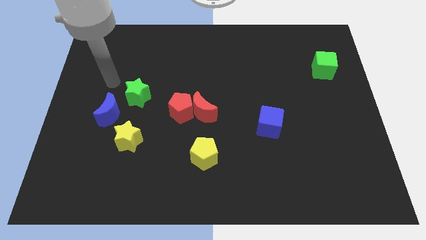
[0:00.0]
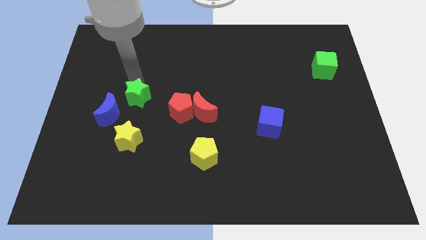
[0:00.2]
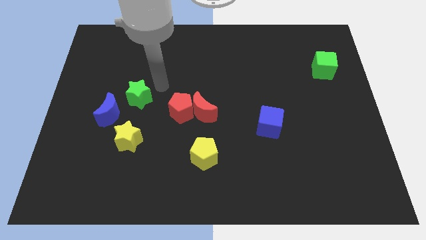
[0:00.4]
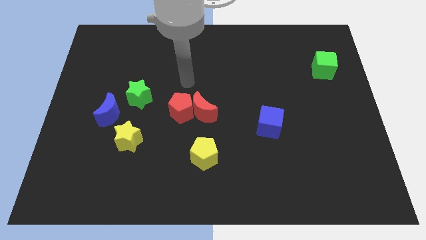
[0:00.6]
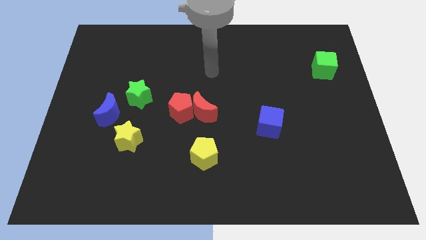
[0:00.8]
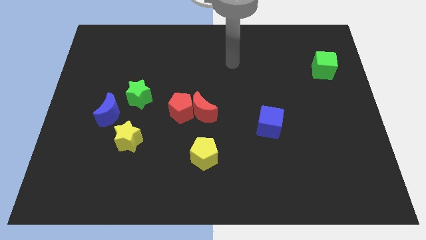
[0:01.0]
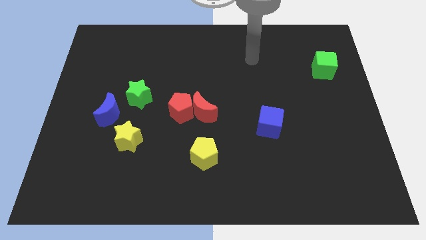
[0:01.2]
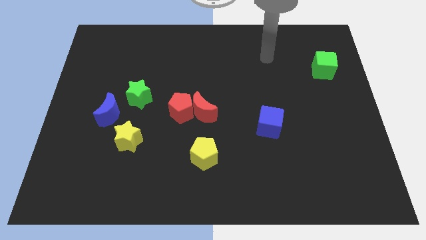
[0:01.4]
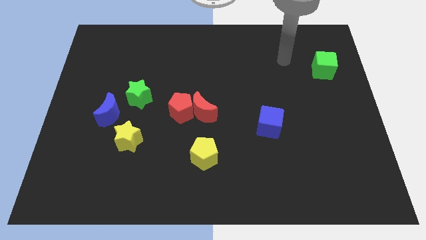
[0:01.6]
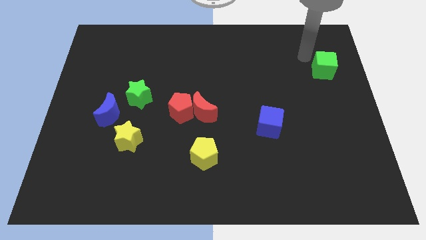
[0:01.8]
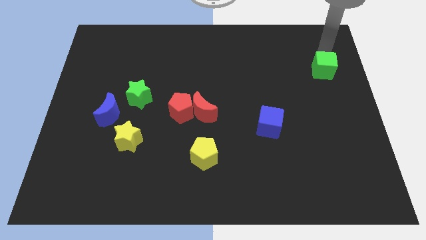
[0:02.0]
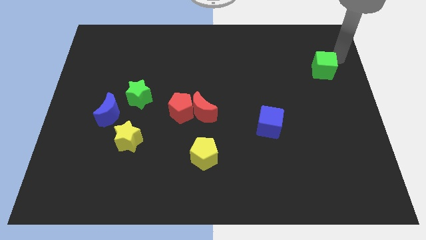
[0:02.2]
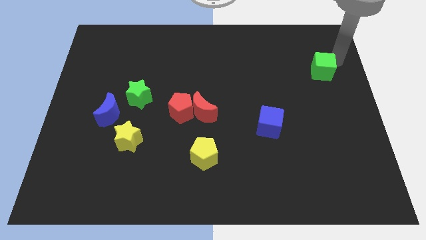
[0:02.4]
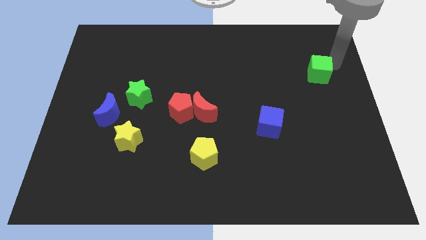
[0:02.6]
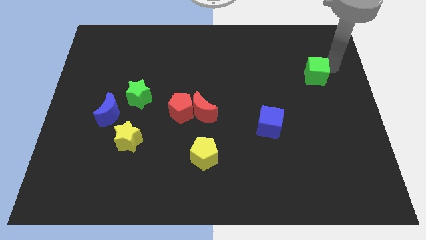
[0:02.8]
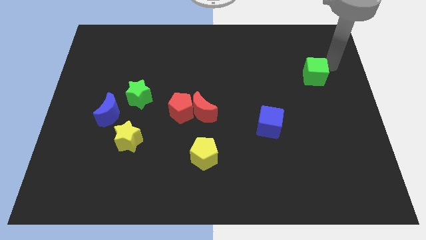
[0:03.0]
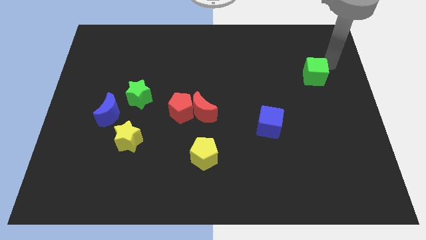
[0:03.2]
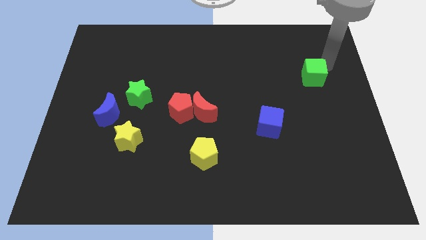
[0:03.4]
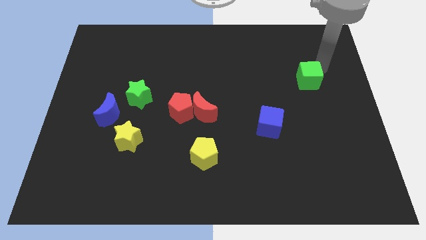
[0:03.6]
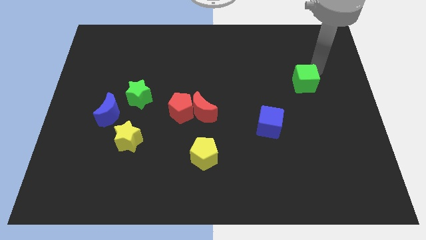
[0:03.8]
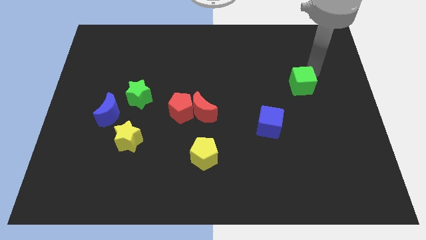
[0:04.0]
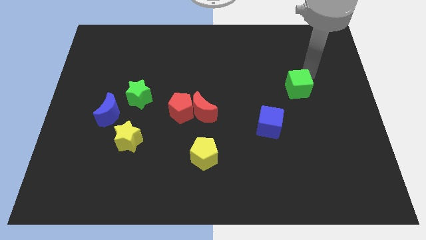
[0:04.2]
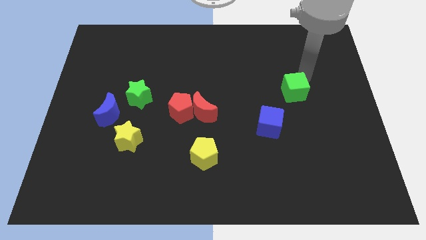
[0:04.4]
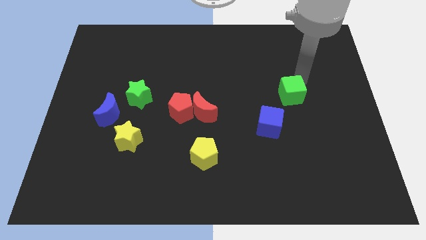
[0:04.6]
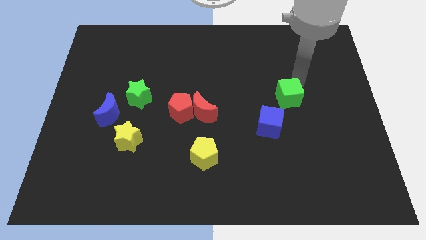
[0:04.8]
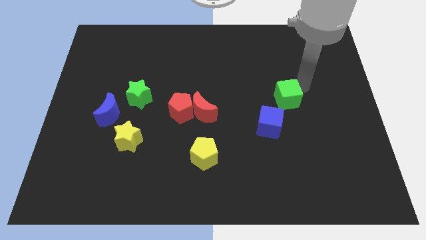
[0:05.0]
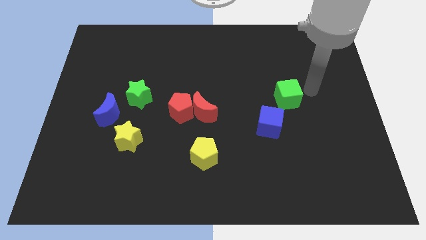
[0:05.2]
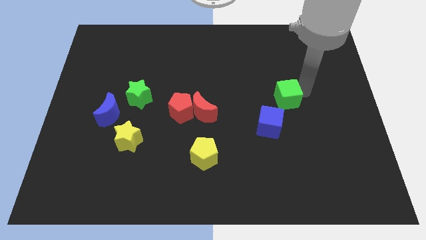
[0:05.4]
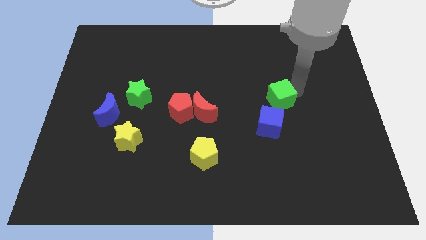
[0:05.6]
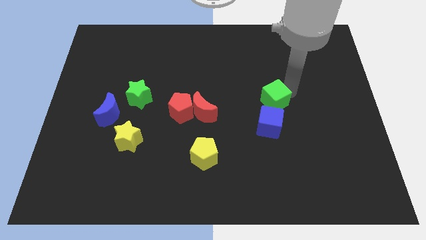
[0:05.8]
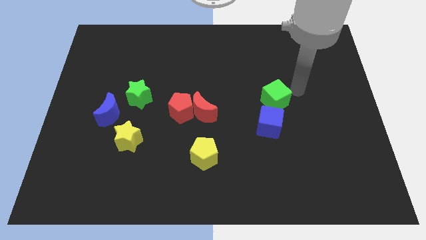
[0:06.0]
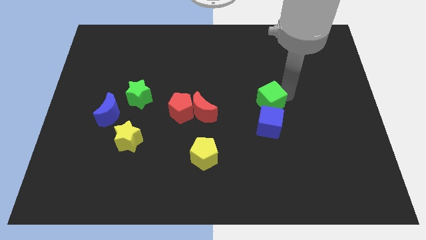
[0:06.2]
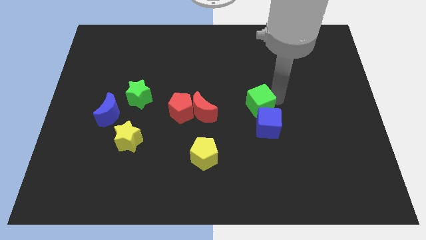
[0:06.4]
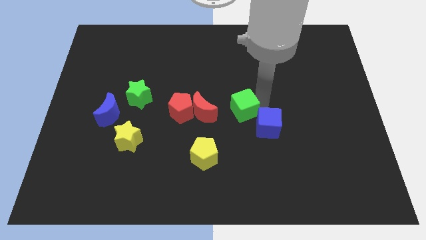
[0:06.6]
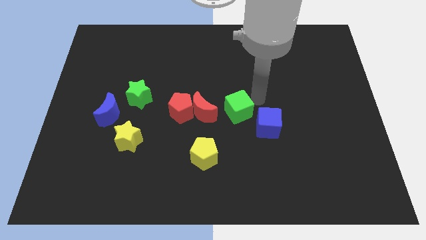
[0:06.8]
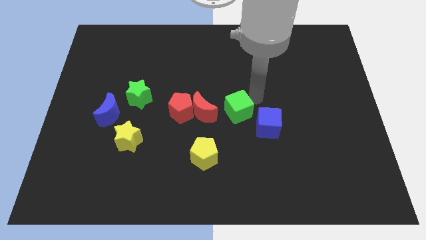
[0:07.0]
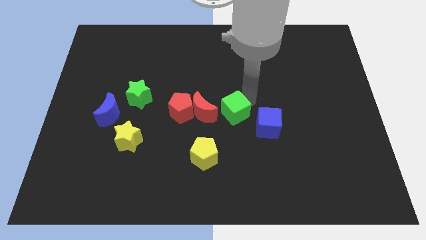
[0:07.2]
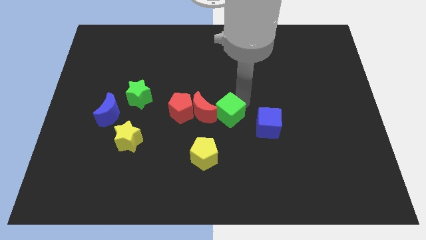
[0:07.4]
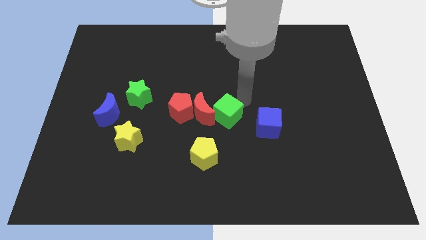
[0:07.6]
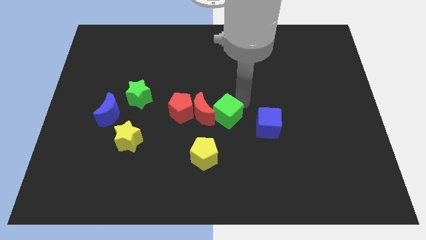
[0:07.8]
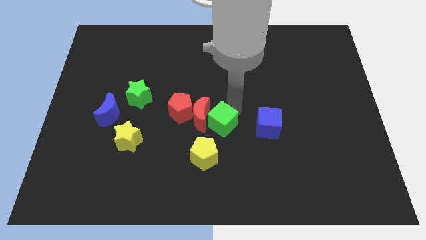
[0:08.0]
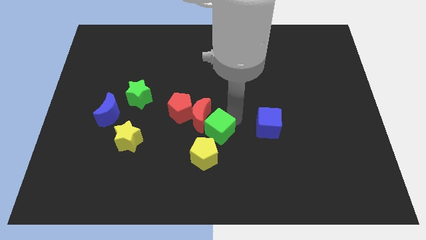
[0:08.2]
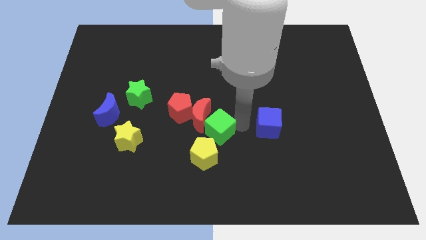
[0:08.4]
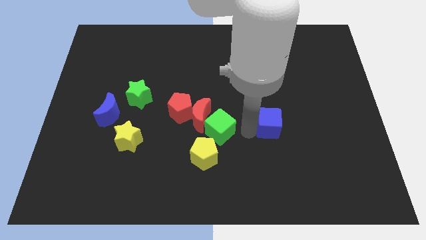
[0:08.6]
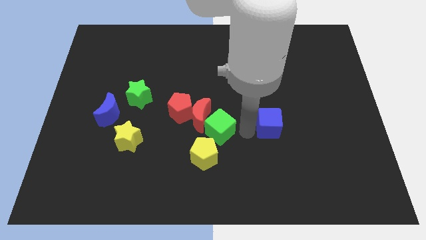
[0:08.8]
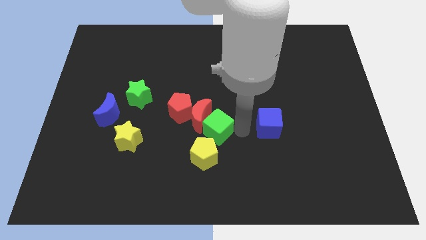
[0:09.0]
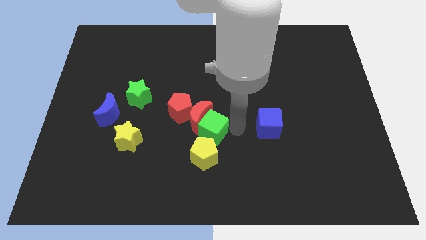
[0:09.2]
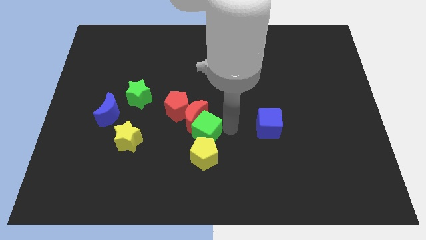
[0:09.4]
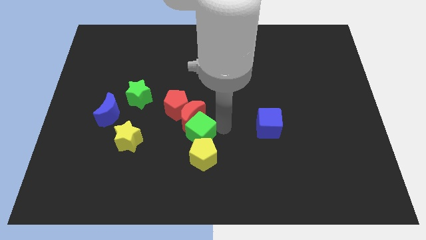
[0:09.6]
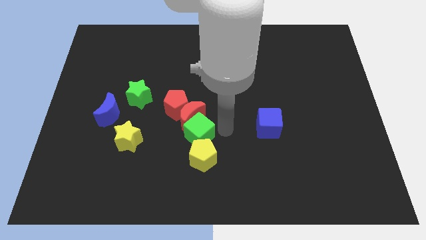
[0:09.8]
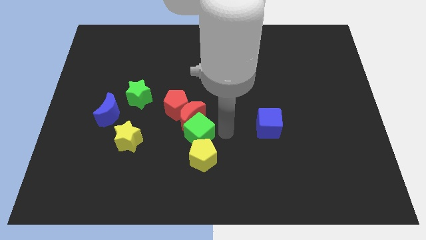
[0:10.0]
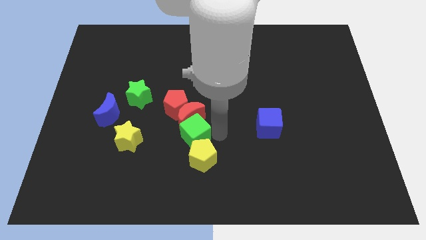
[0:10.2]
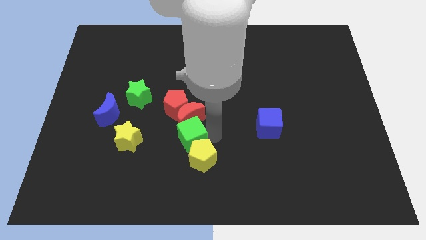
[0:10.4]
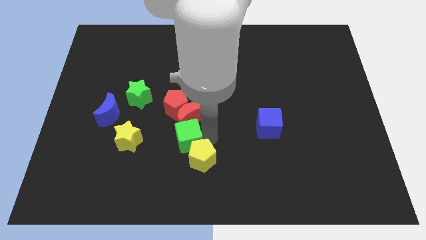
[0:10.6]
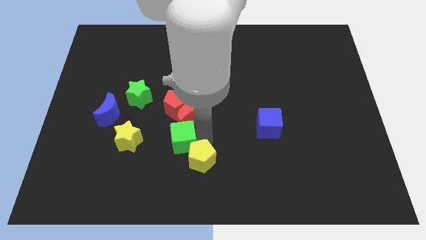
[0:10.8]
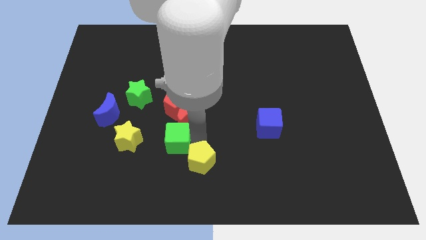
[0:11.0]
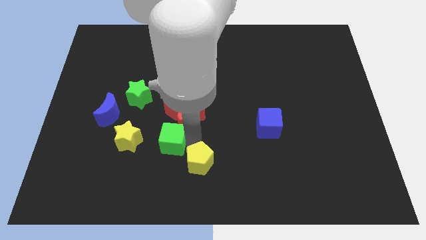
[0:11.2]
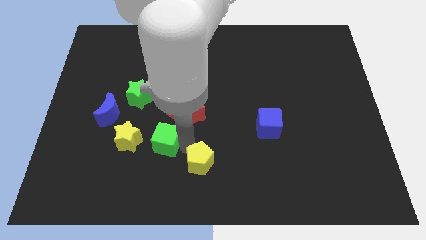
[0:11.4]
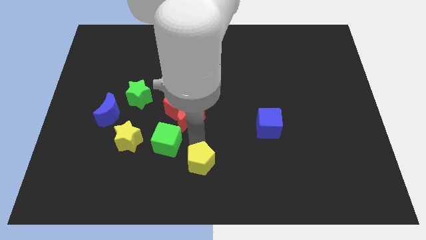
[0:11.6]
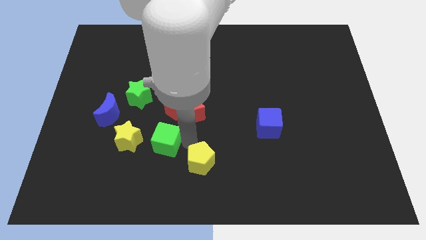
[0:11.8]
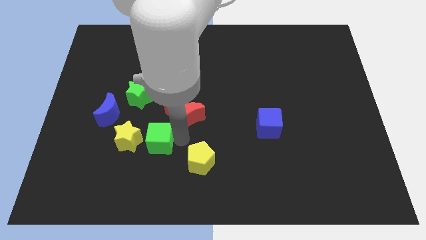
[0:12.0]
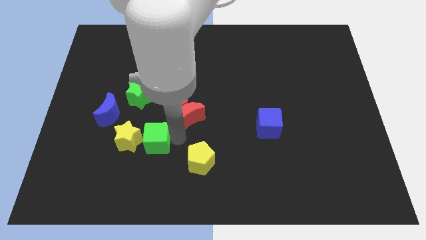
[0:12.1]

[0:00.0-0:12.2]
push the green cube to the yellow star

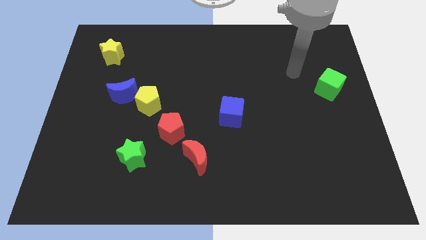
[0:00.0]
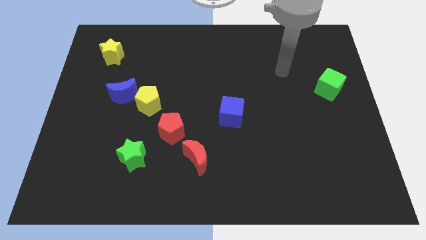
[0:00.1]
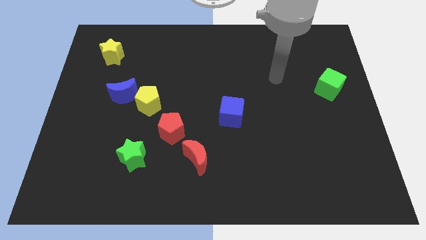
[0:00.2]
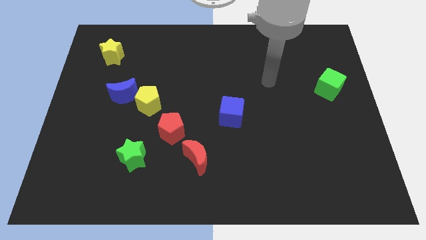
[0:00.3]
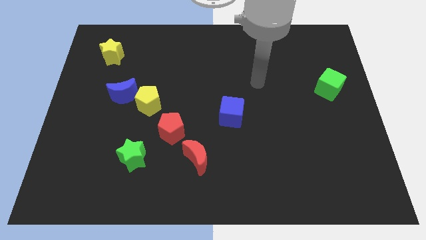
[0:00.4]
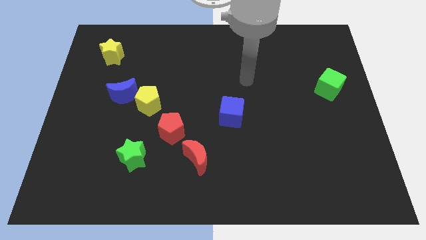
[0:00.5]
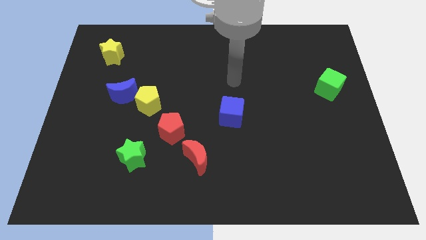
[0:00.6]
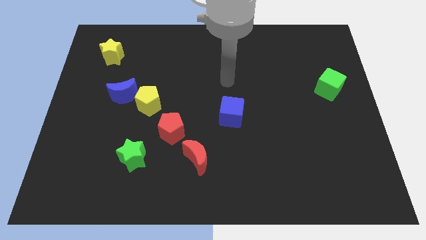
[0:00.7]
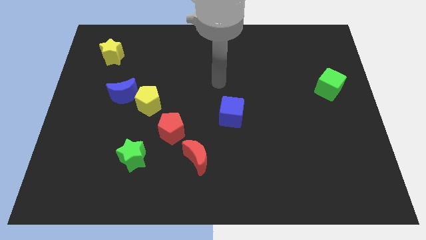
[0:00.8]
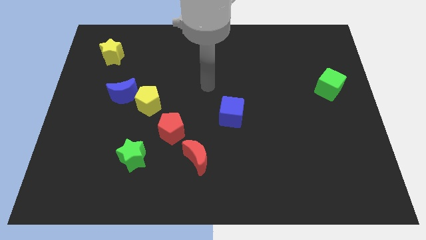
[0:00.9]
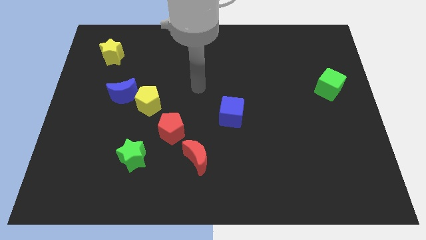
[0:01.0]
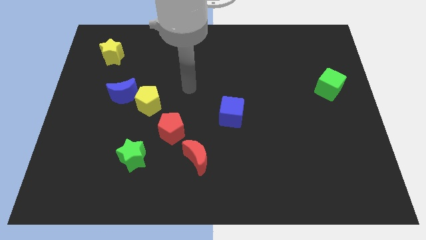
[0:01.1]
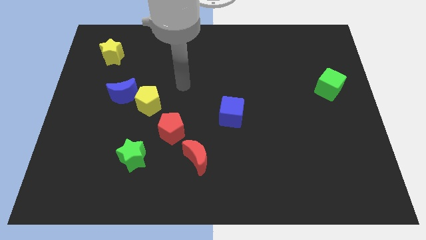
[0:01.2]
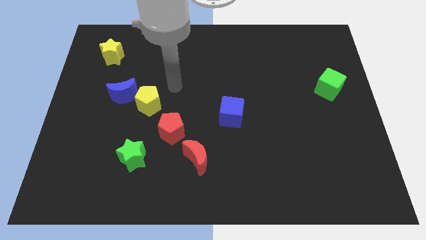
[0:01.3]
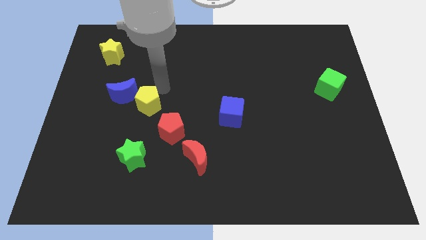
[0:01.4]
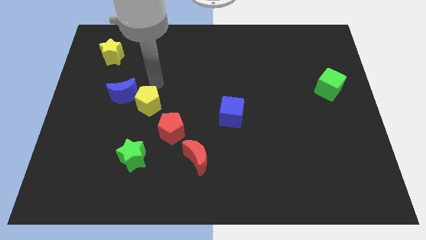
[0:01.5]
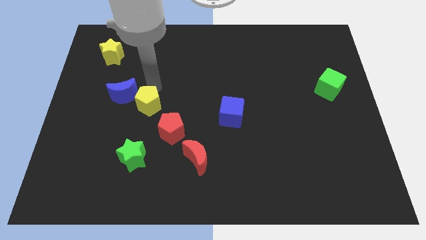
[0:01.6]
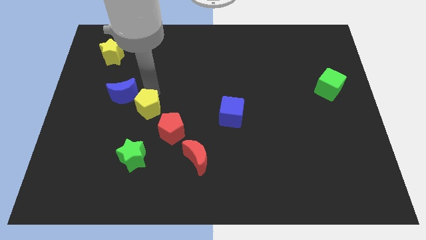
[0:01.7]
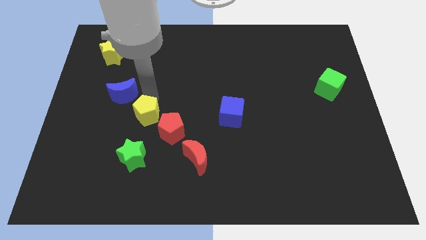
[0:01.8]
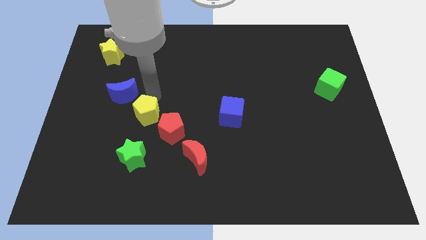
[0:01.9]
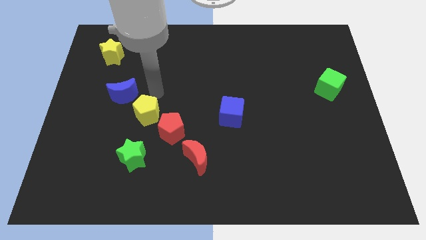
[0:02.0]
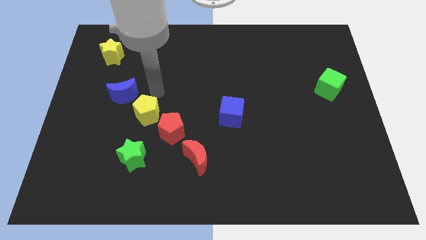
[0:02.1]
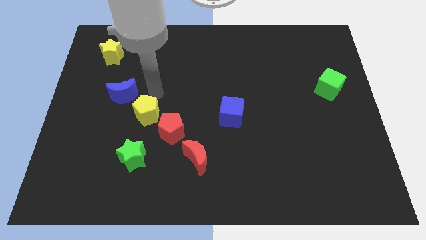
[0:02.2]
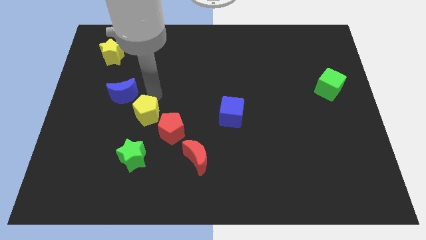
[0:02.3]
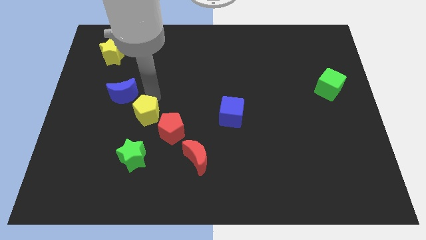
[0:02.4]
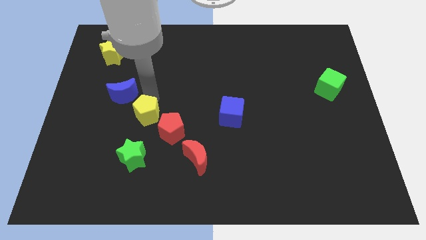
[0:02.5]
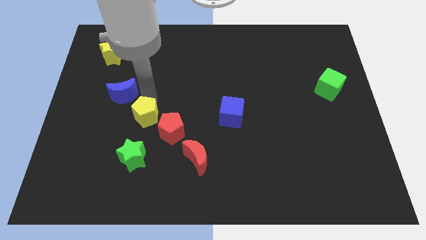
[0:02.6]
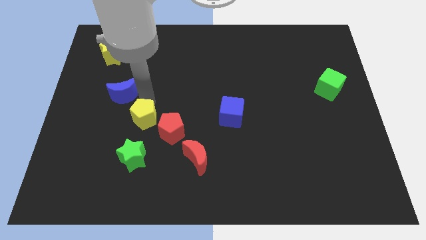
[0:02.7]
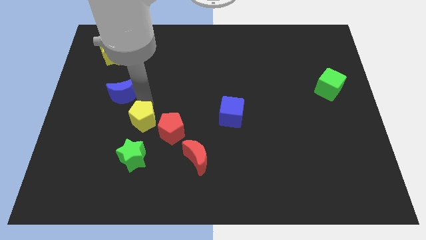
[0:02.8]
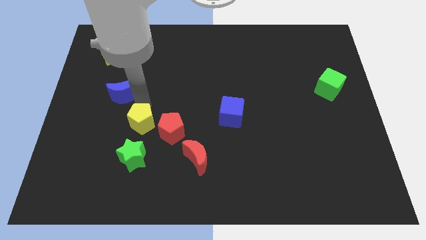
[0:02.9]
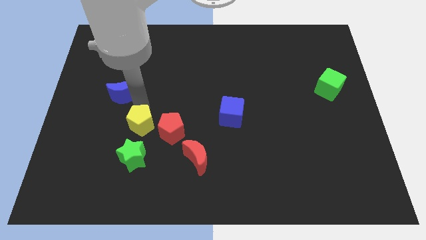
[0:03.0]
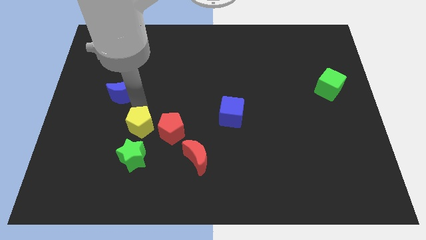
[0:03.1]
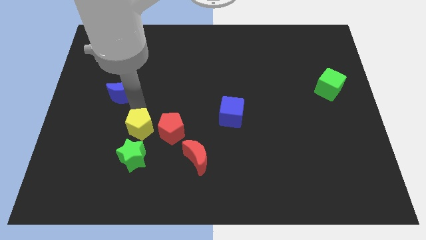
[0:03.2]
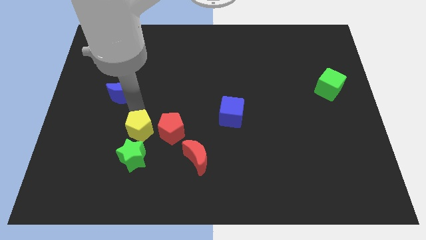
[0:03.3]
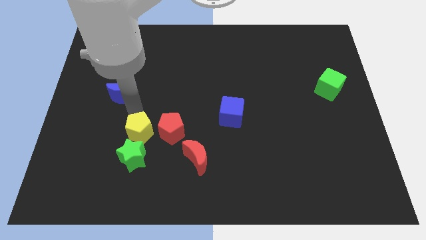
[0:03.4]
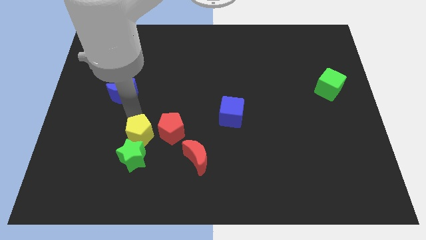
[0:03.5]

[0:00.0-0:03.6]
push the yellow pentagon to the green star
